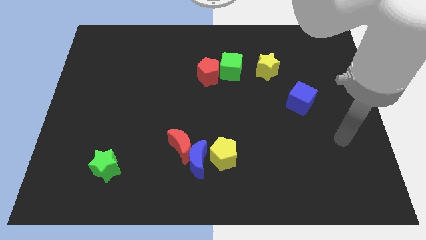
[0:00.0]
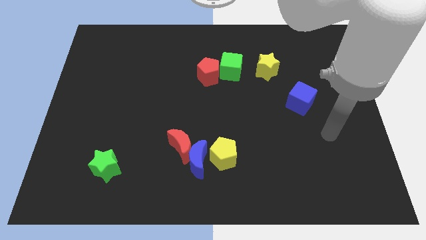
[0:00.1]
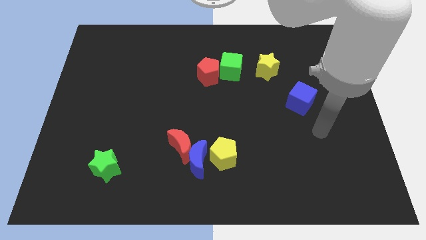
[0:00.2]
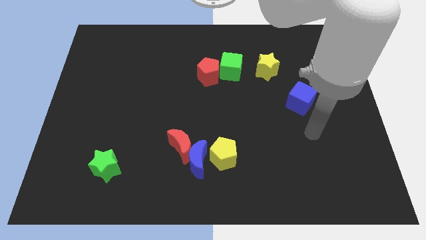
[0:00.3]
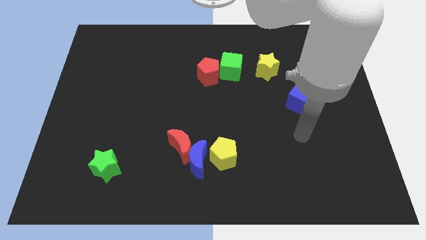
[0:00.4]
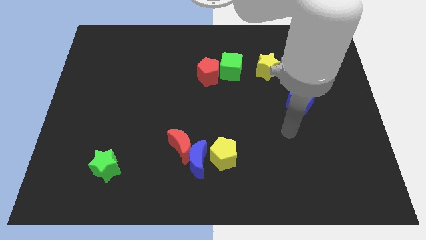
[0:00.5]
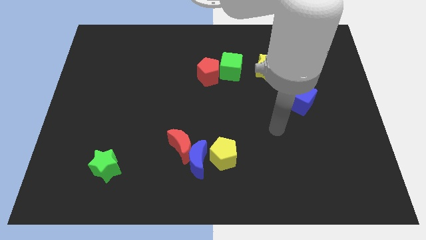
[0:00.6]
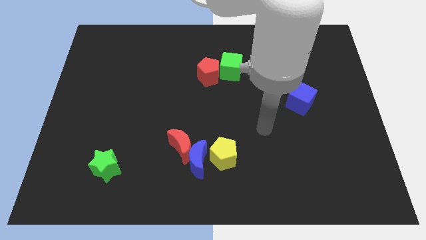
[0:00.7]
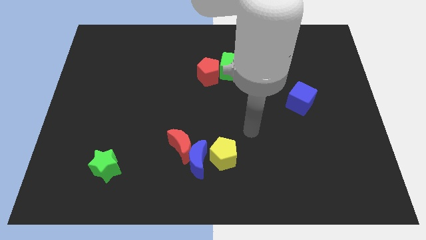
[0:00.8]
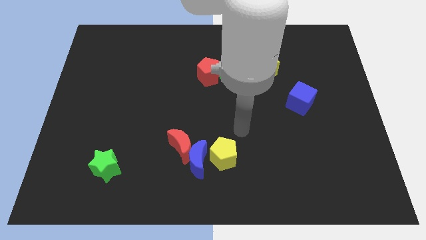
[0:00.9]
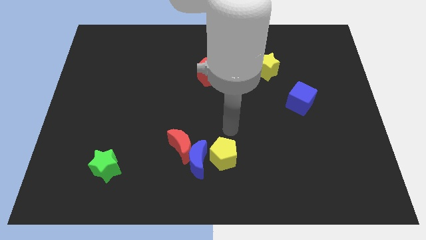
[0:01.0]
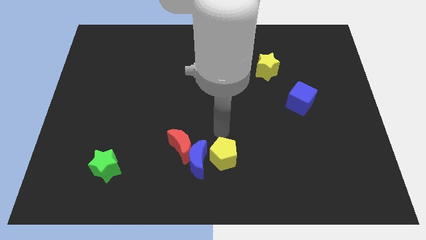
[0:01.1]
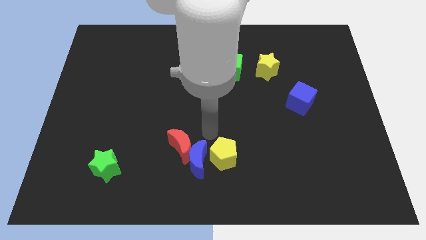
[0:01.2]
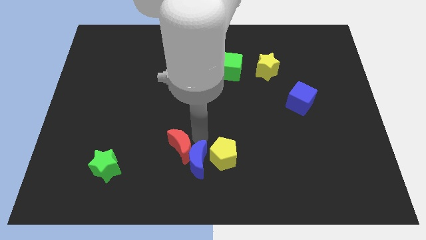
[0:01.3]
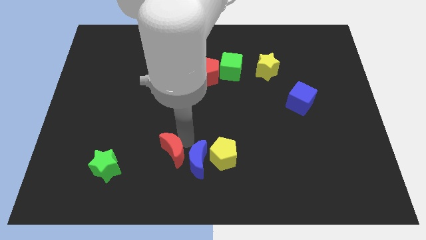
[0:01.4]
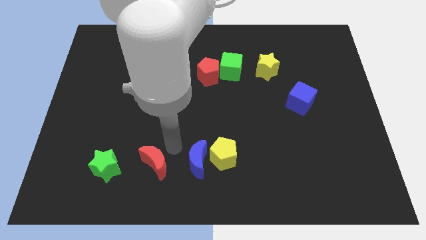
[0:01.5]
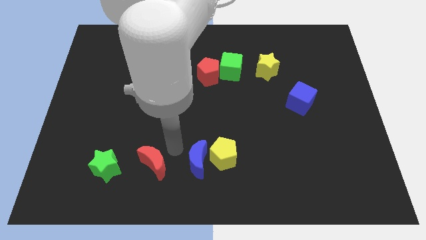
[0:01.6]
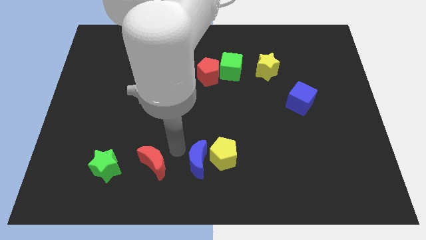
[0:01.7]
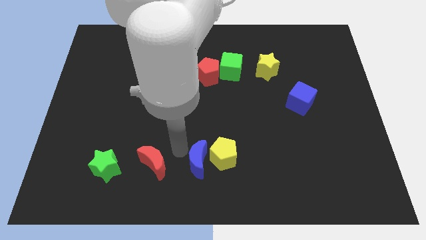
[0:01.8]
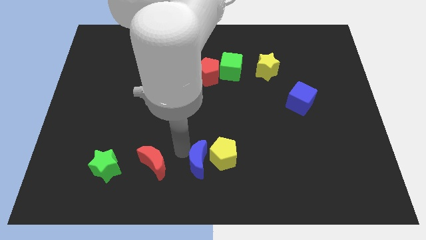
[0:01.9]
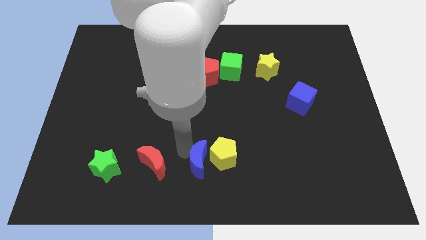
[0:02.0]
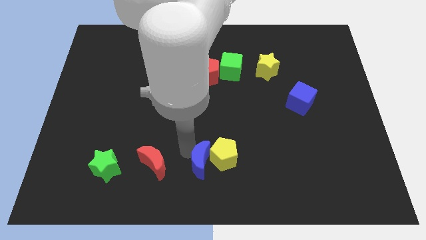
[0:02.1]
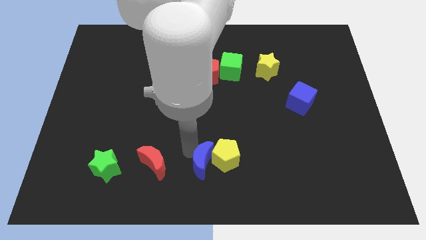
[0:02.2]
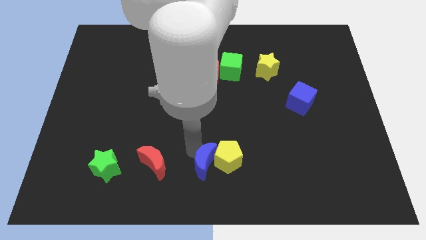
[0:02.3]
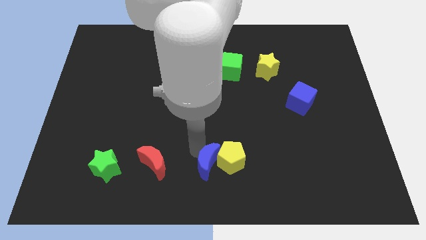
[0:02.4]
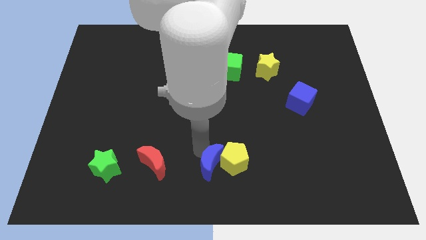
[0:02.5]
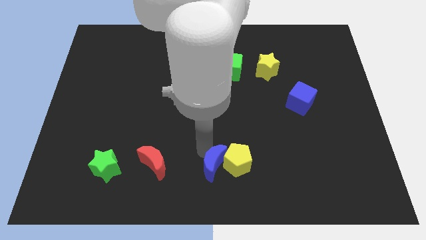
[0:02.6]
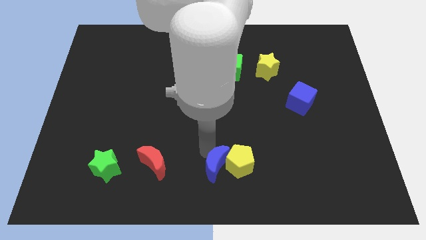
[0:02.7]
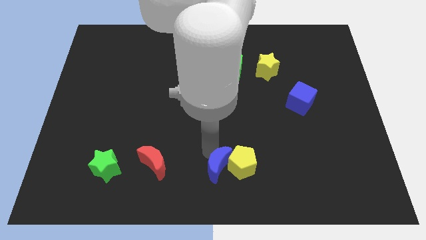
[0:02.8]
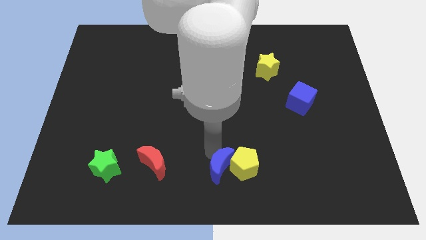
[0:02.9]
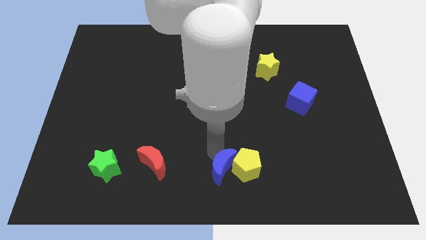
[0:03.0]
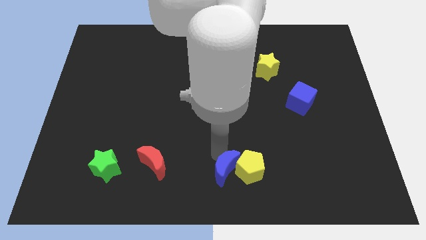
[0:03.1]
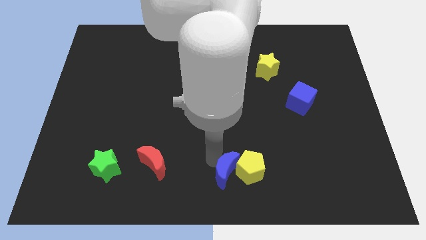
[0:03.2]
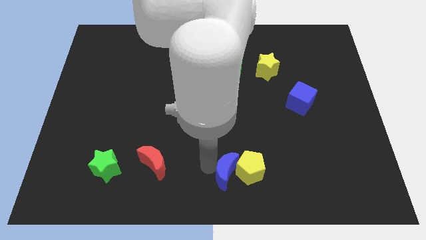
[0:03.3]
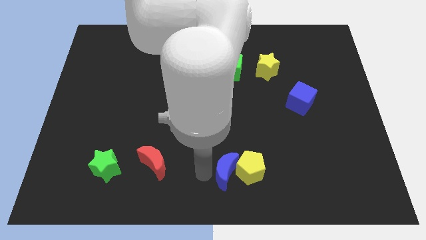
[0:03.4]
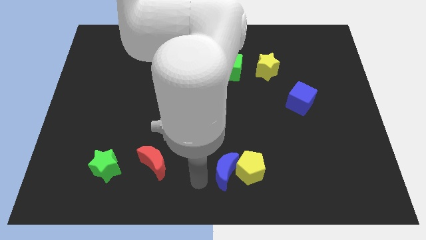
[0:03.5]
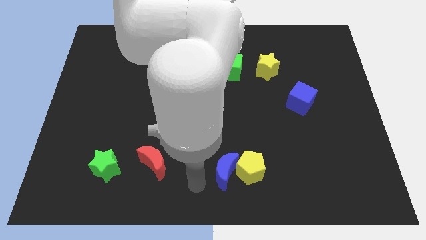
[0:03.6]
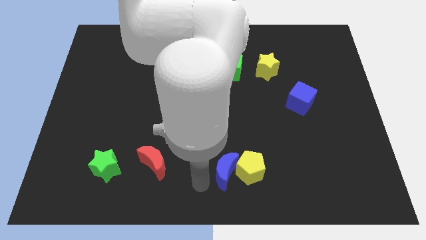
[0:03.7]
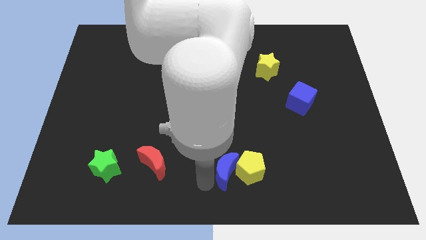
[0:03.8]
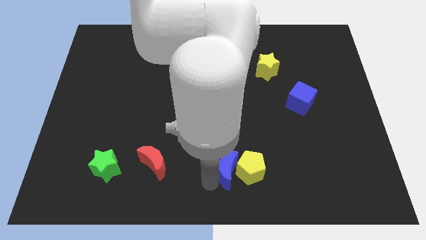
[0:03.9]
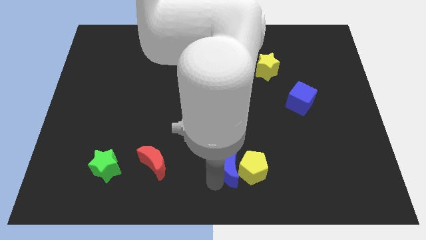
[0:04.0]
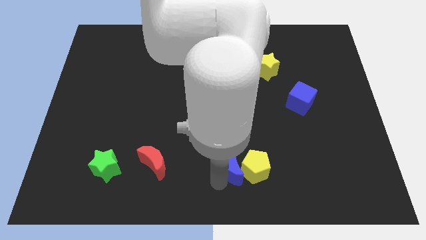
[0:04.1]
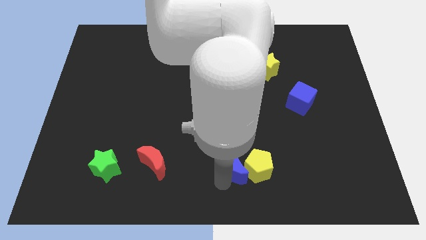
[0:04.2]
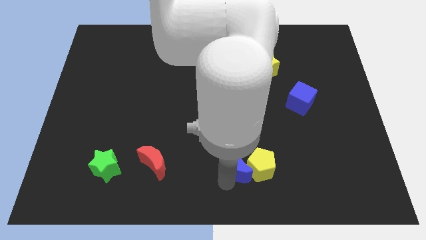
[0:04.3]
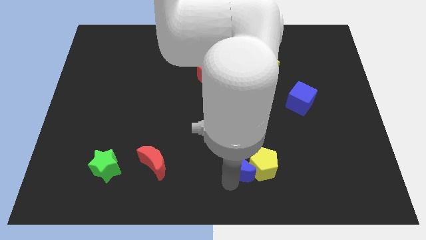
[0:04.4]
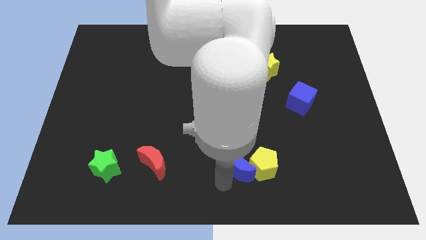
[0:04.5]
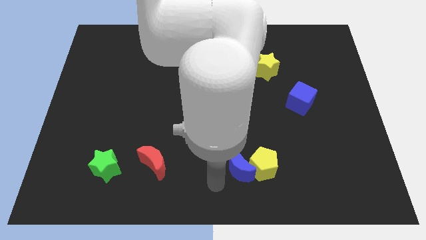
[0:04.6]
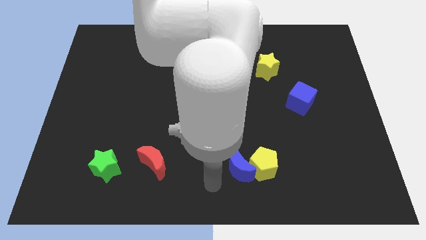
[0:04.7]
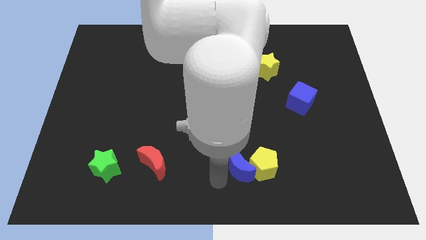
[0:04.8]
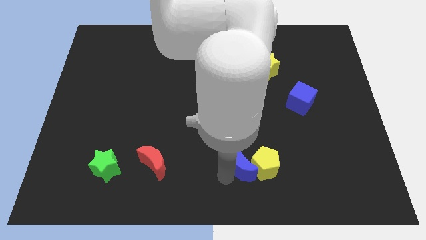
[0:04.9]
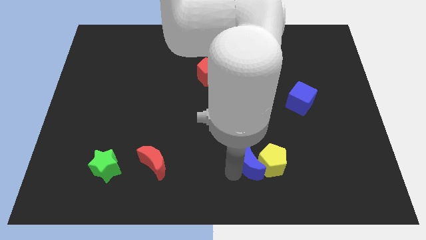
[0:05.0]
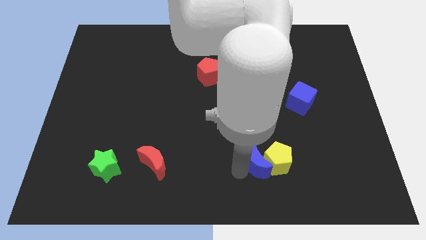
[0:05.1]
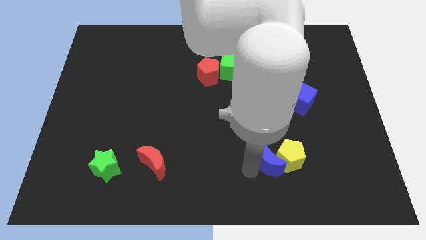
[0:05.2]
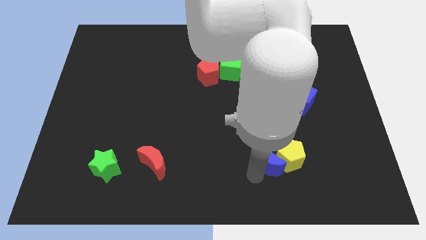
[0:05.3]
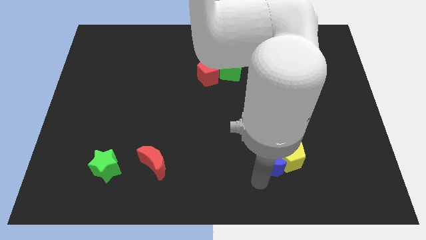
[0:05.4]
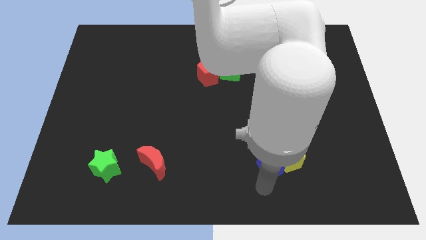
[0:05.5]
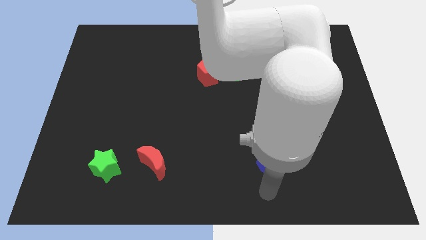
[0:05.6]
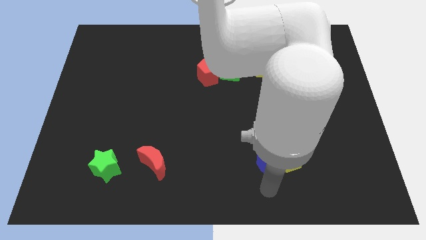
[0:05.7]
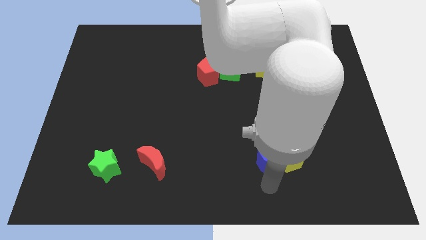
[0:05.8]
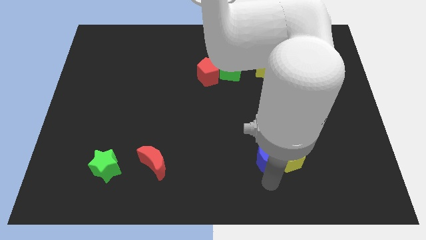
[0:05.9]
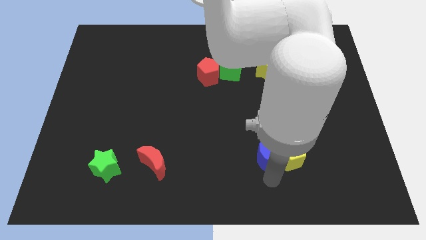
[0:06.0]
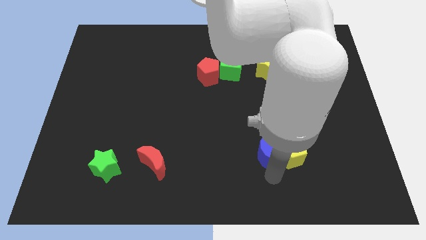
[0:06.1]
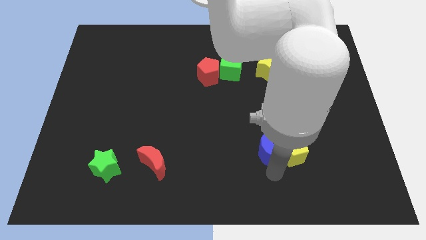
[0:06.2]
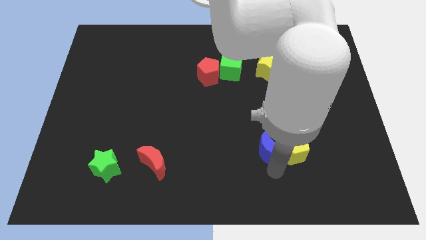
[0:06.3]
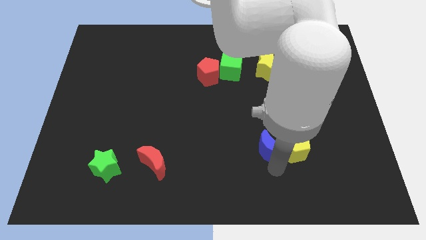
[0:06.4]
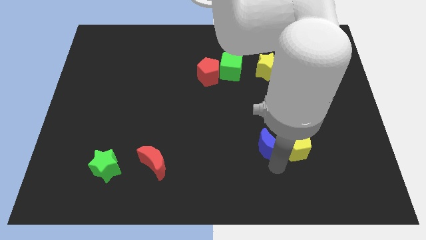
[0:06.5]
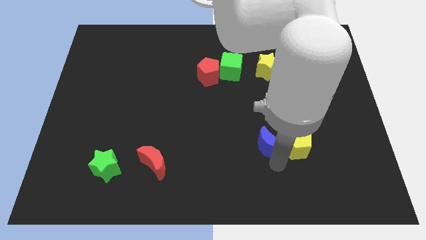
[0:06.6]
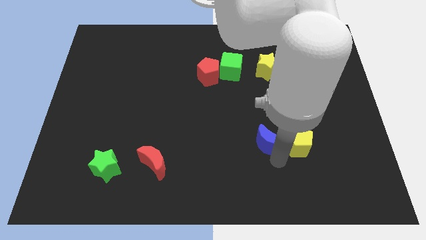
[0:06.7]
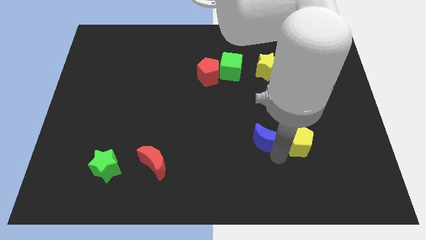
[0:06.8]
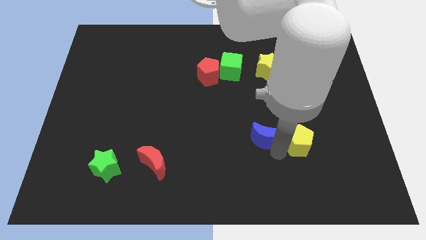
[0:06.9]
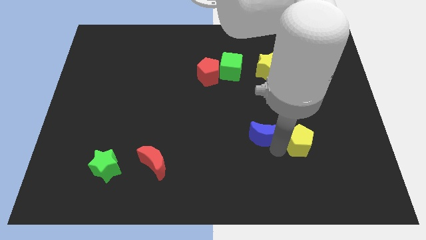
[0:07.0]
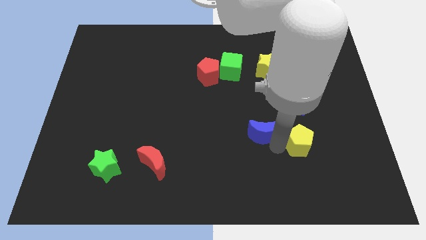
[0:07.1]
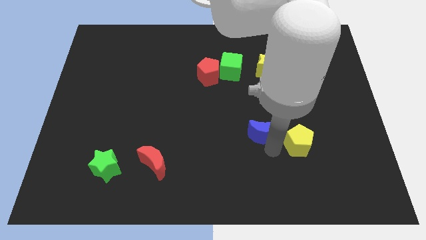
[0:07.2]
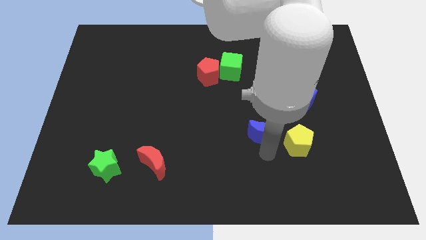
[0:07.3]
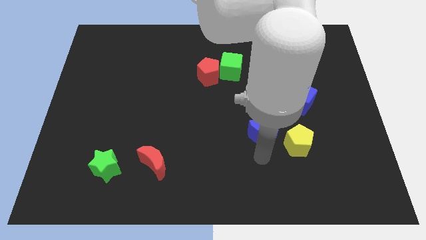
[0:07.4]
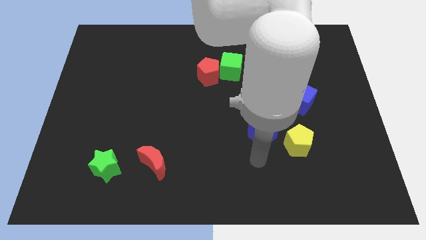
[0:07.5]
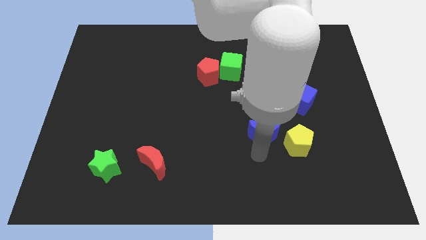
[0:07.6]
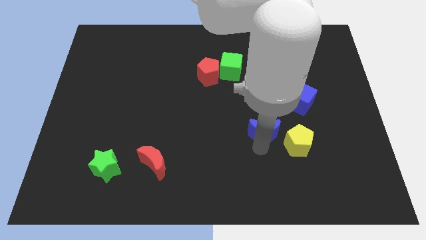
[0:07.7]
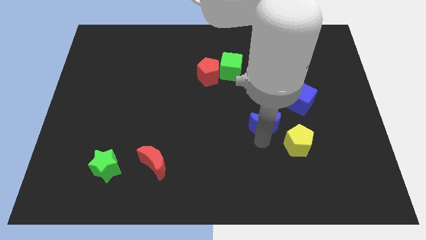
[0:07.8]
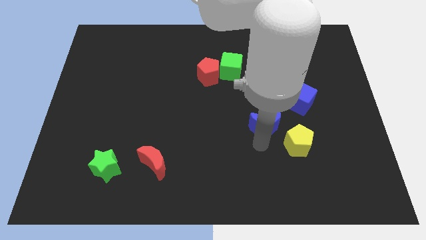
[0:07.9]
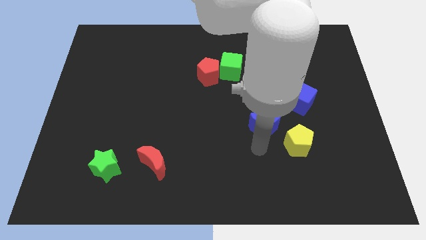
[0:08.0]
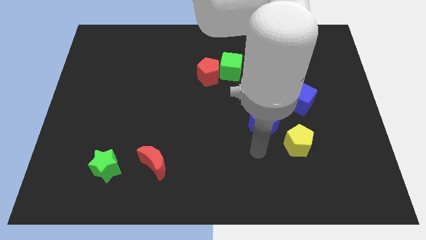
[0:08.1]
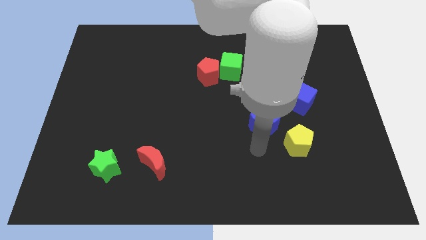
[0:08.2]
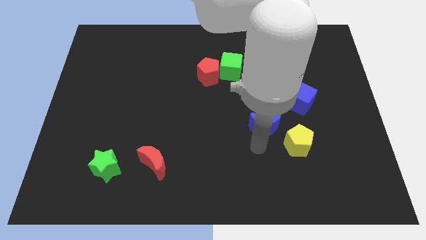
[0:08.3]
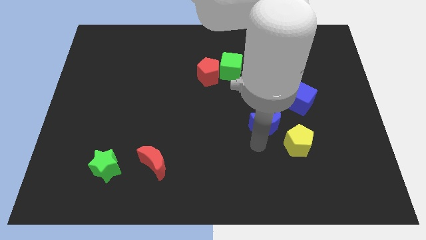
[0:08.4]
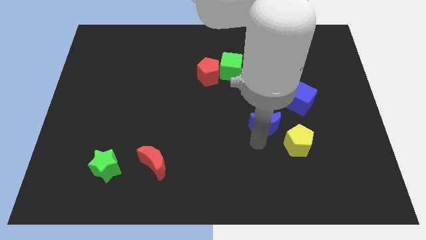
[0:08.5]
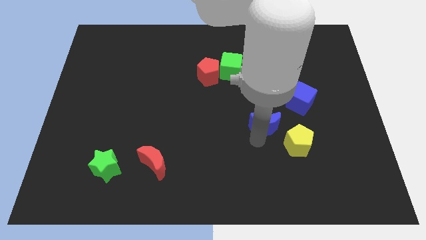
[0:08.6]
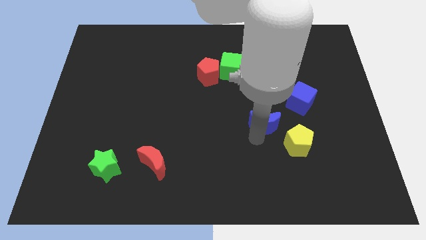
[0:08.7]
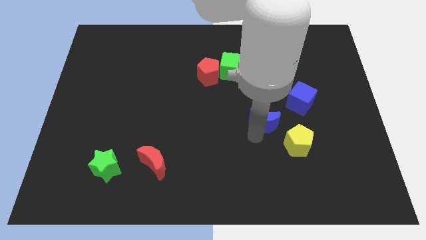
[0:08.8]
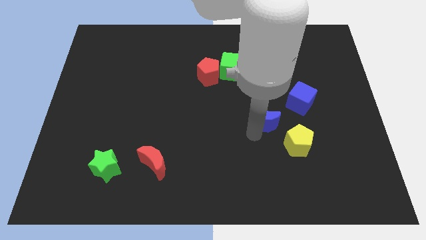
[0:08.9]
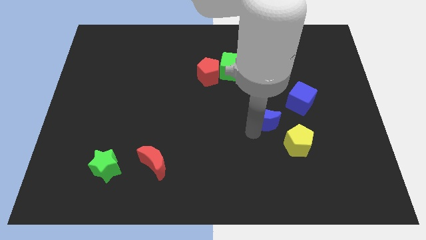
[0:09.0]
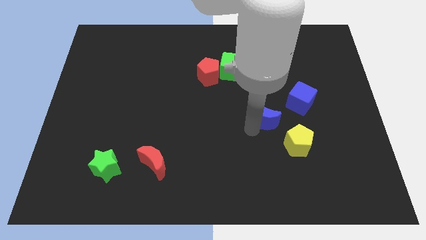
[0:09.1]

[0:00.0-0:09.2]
push the blue moon to the bottom side of the yellow star
